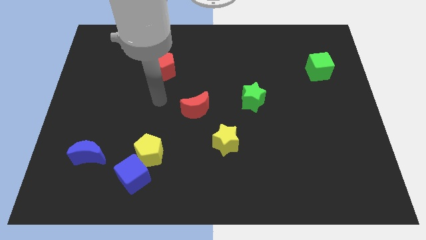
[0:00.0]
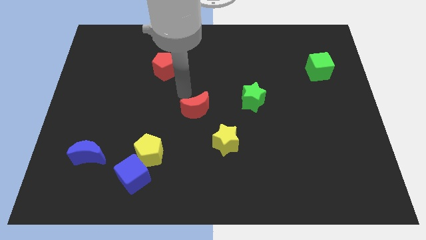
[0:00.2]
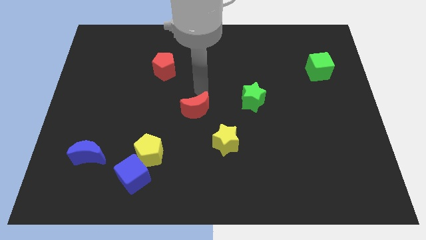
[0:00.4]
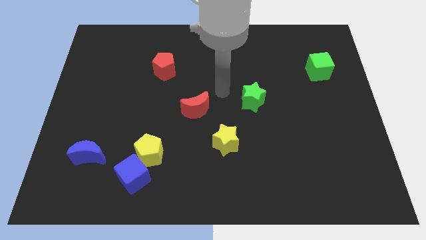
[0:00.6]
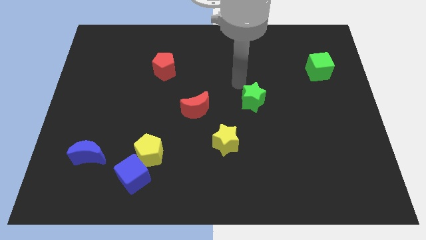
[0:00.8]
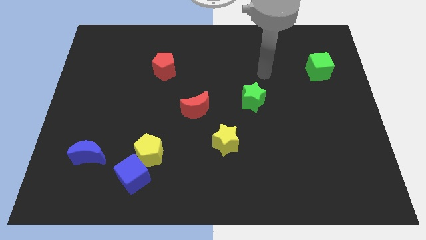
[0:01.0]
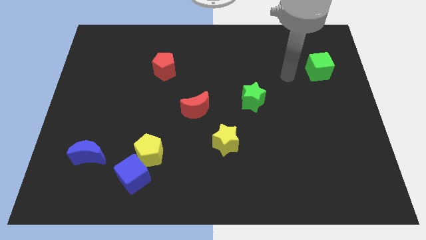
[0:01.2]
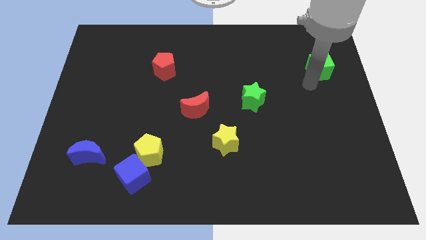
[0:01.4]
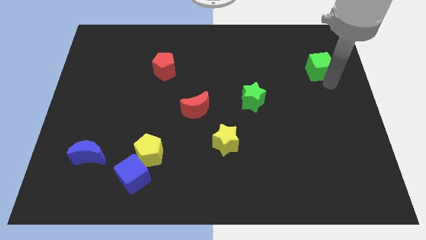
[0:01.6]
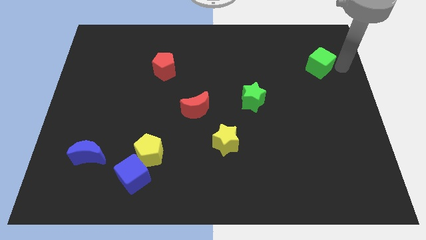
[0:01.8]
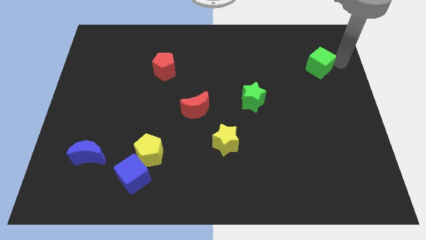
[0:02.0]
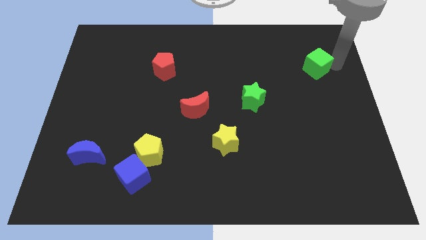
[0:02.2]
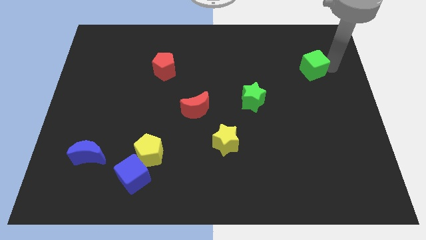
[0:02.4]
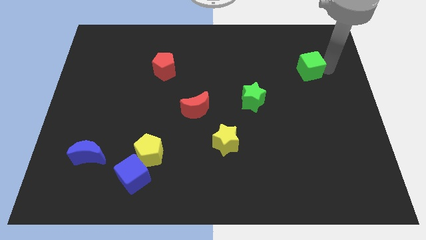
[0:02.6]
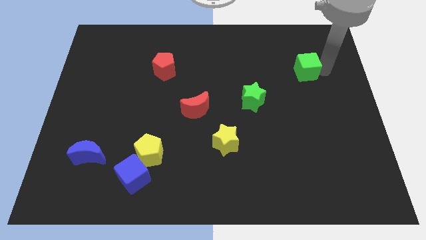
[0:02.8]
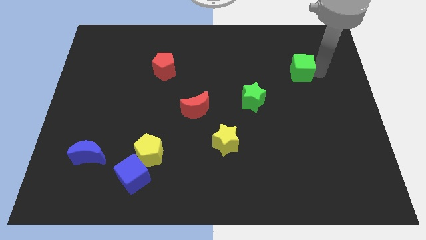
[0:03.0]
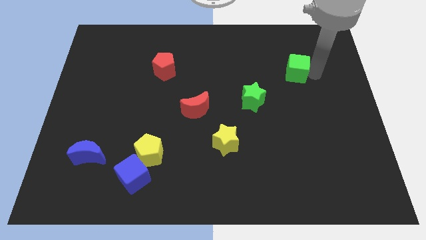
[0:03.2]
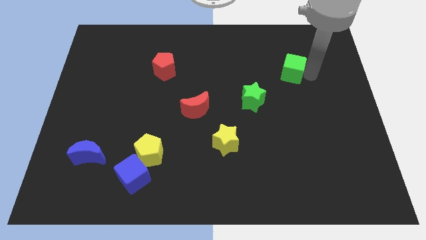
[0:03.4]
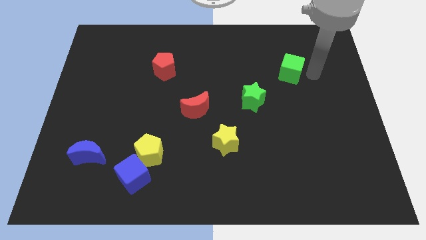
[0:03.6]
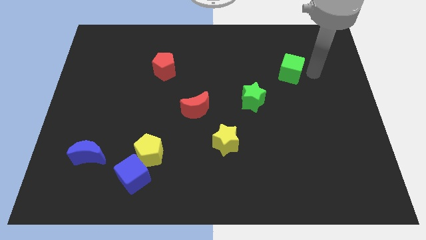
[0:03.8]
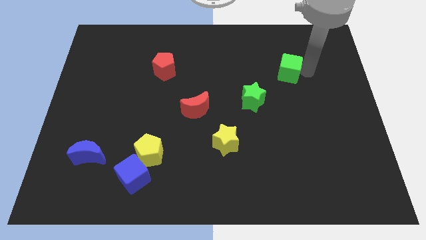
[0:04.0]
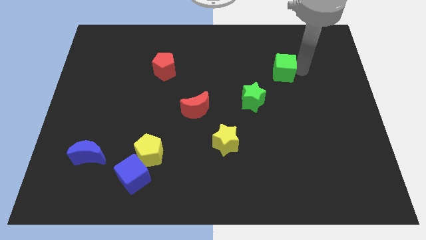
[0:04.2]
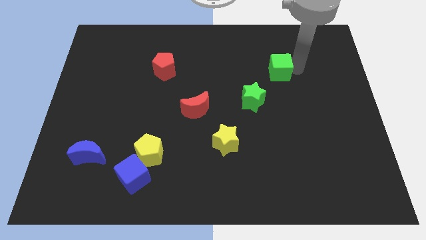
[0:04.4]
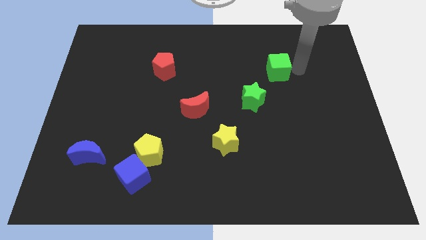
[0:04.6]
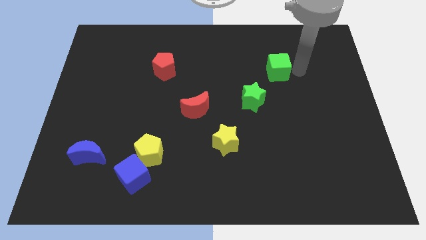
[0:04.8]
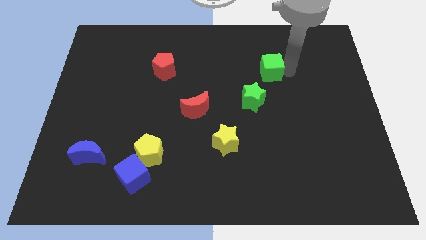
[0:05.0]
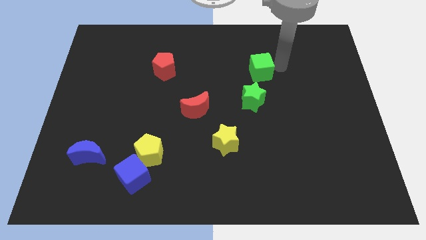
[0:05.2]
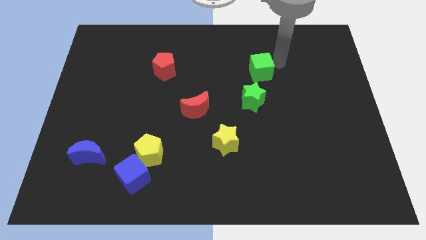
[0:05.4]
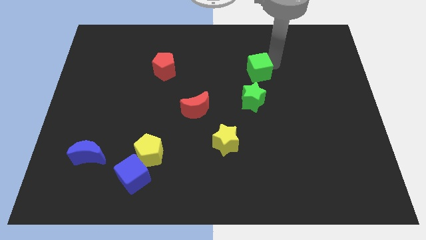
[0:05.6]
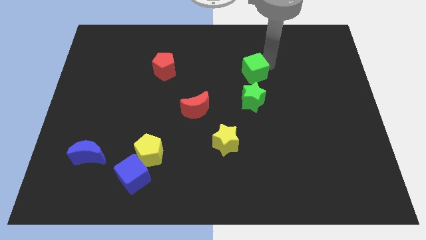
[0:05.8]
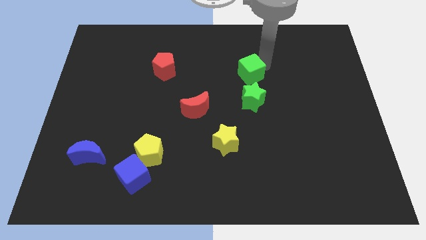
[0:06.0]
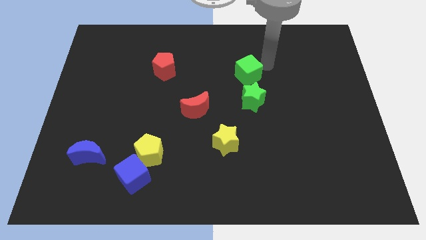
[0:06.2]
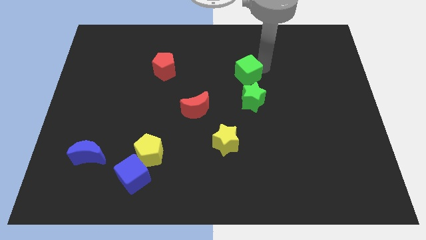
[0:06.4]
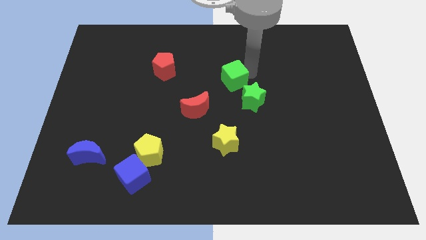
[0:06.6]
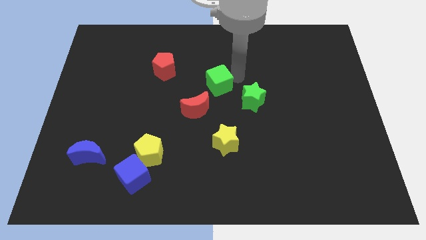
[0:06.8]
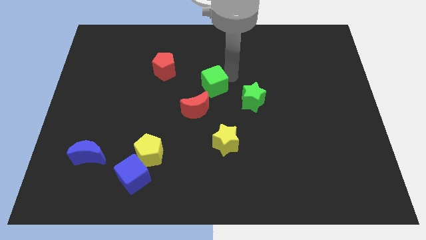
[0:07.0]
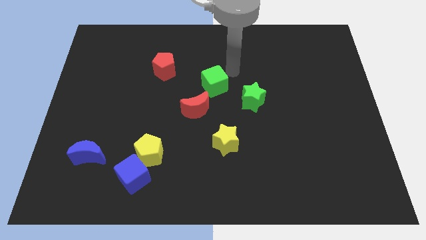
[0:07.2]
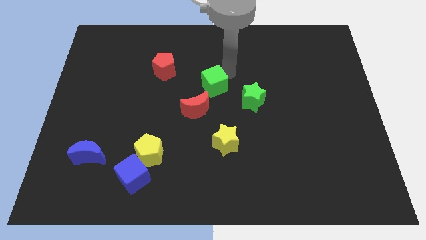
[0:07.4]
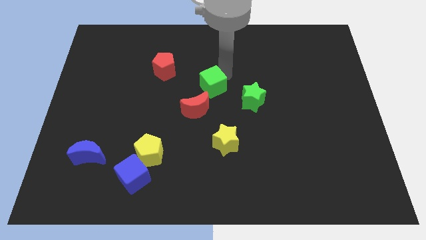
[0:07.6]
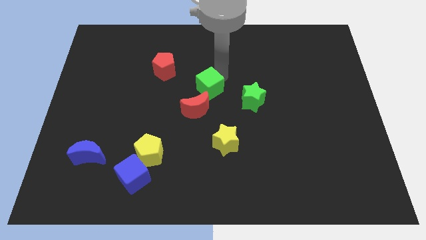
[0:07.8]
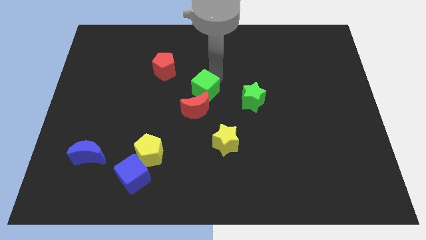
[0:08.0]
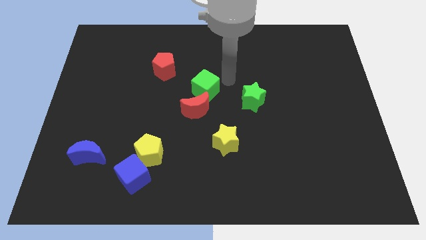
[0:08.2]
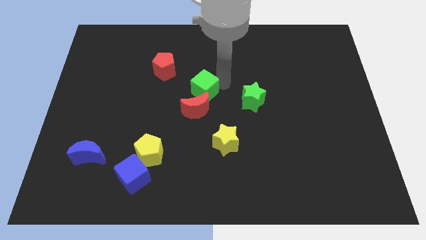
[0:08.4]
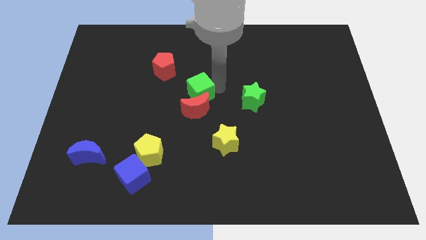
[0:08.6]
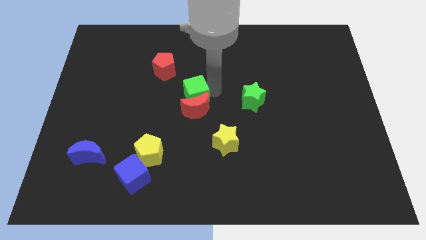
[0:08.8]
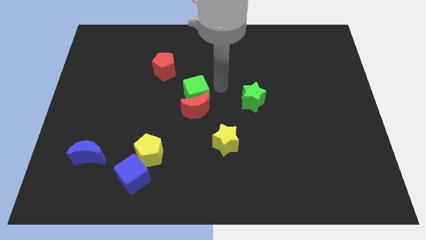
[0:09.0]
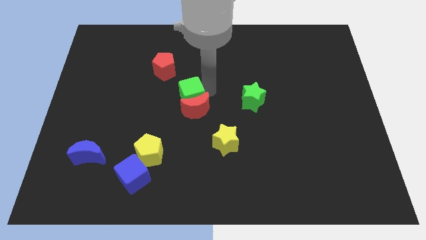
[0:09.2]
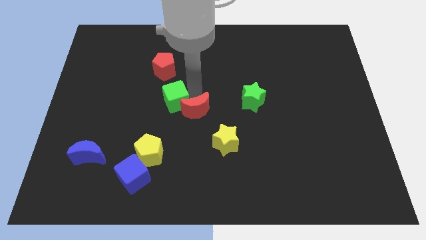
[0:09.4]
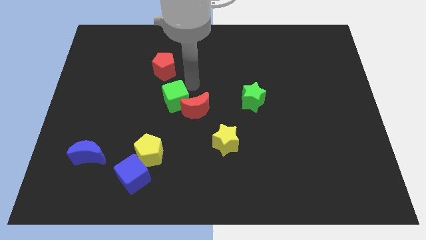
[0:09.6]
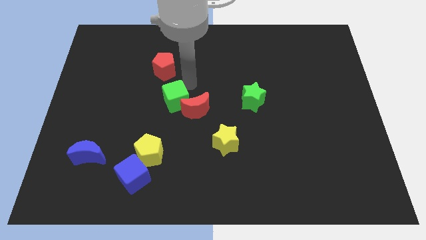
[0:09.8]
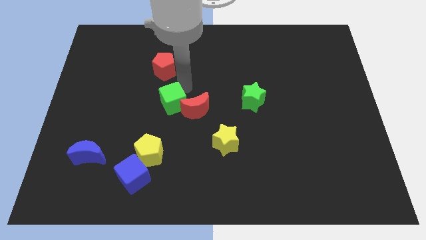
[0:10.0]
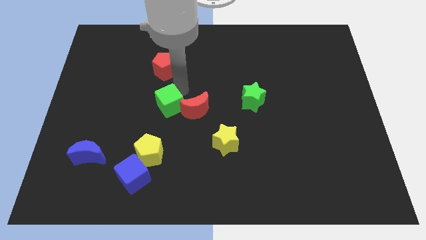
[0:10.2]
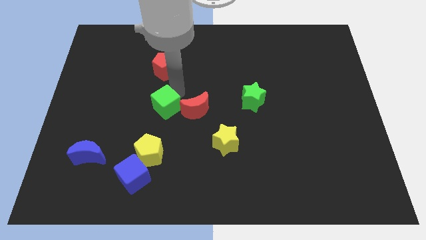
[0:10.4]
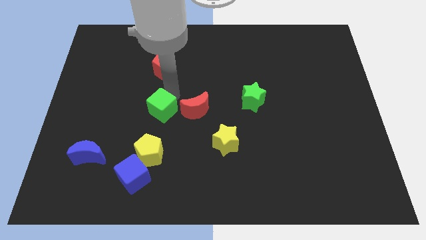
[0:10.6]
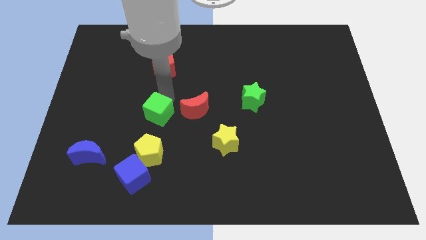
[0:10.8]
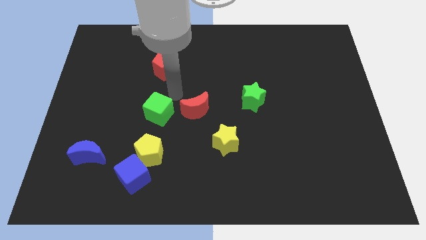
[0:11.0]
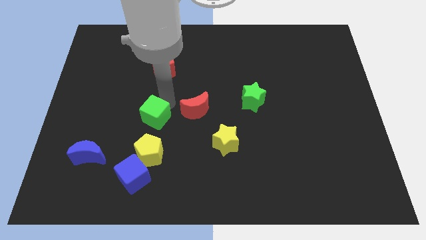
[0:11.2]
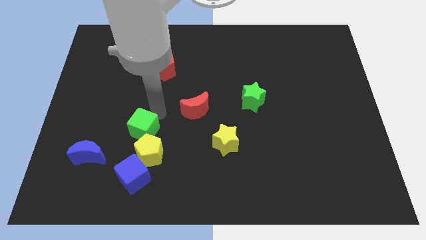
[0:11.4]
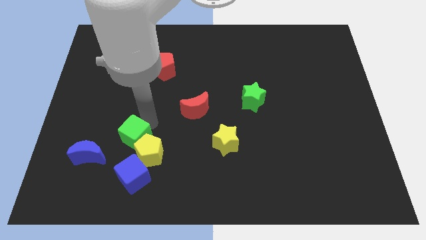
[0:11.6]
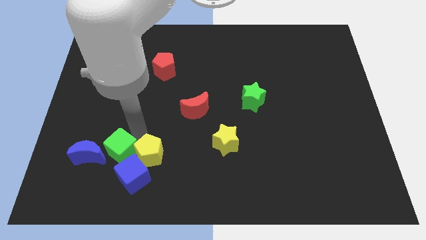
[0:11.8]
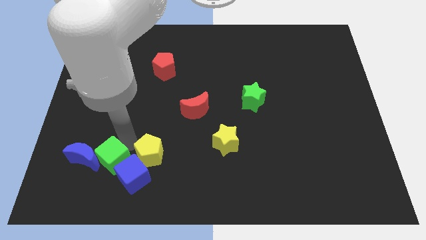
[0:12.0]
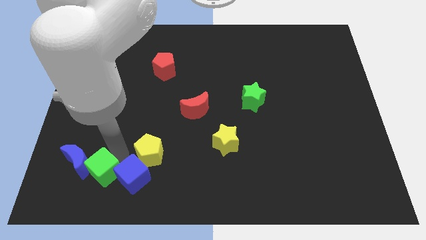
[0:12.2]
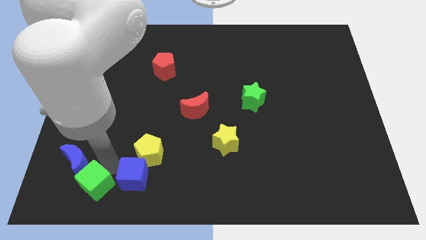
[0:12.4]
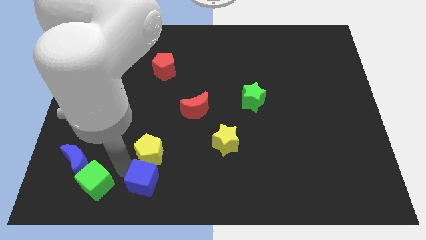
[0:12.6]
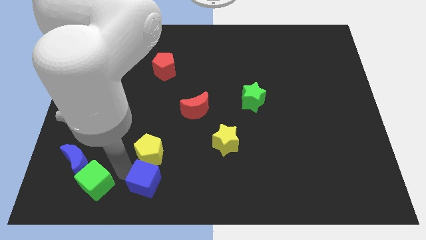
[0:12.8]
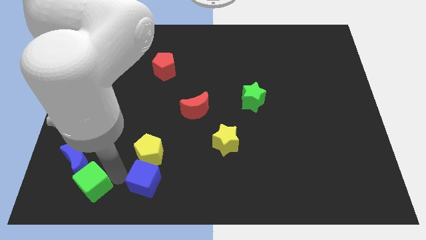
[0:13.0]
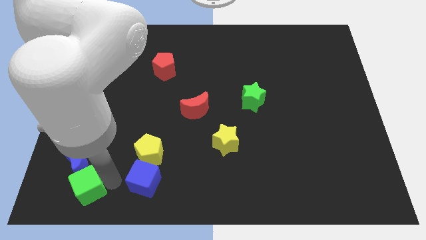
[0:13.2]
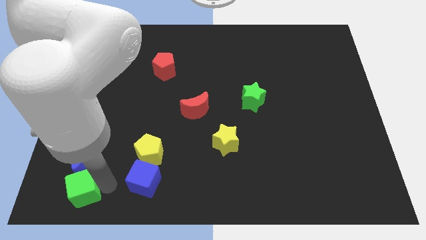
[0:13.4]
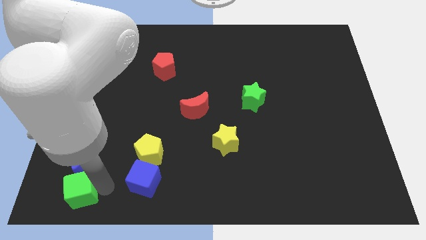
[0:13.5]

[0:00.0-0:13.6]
put the green cube to the bottom left corner
